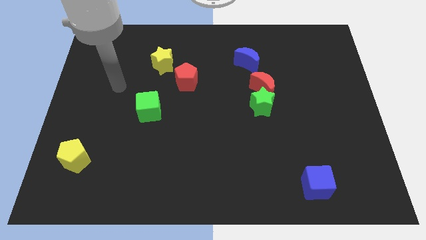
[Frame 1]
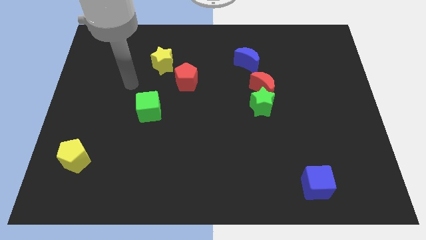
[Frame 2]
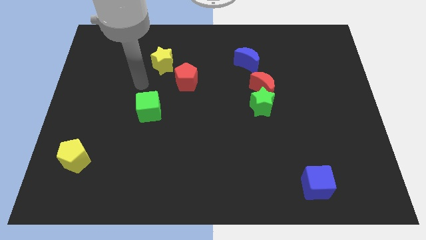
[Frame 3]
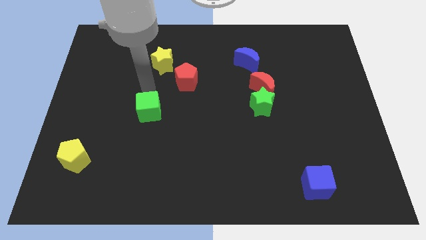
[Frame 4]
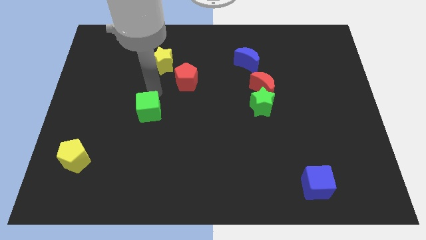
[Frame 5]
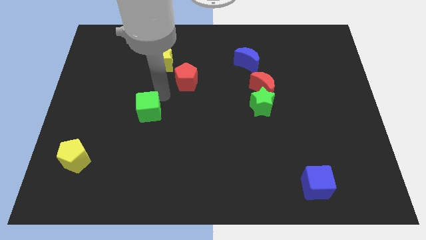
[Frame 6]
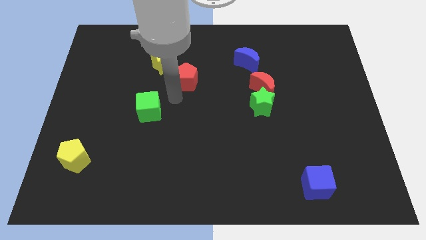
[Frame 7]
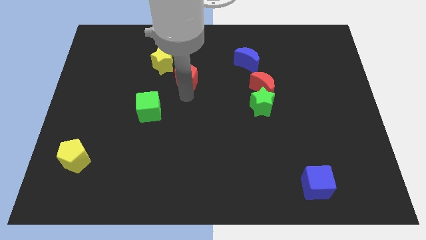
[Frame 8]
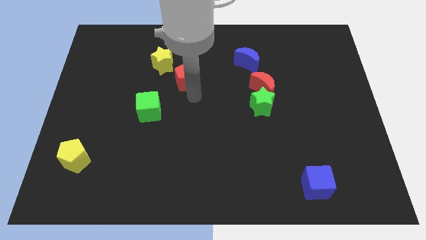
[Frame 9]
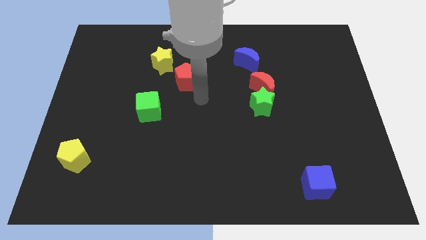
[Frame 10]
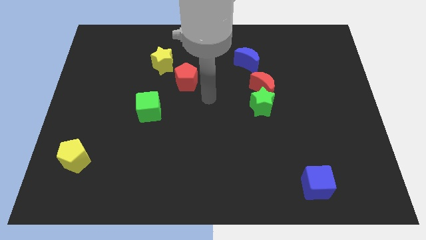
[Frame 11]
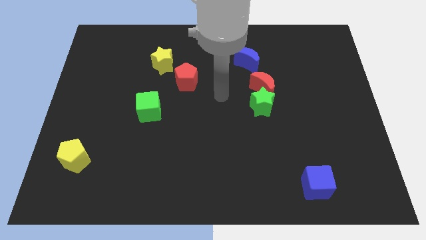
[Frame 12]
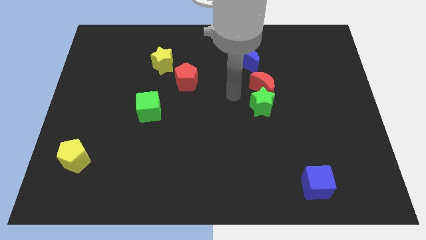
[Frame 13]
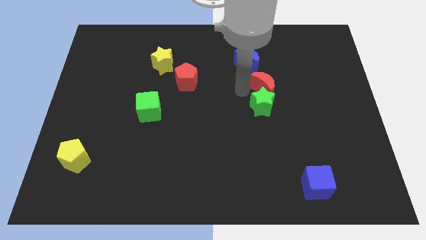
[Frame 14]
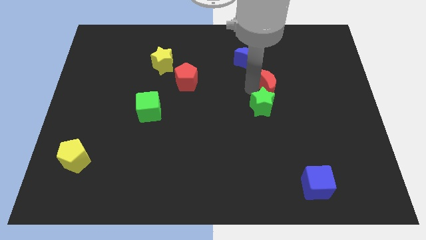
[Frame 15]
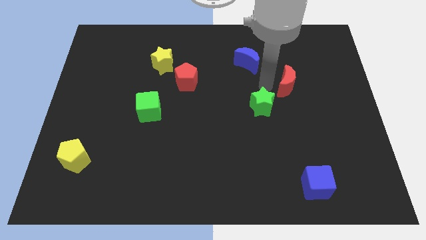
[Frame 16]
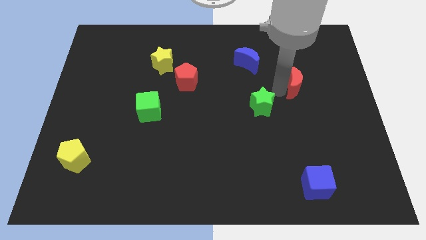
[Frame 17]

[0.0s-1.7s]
pull the green star apart from the red moon

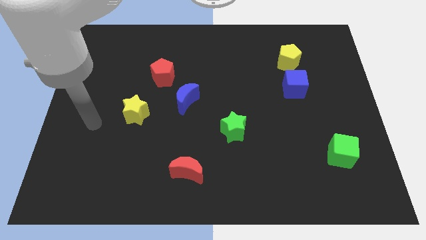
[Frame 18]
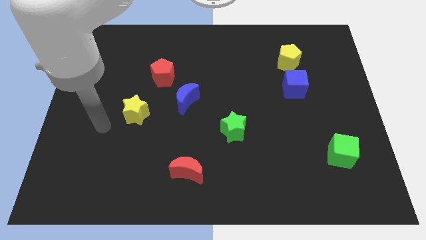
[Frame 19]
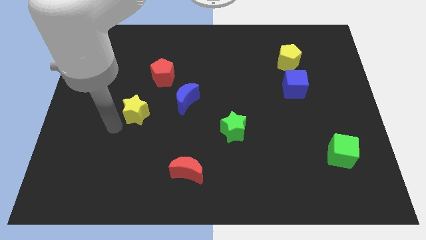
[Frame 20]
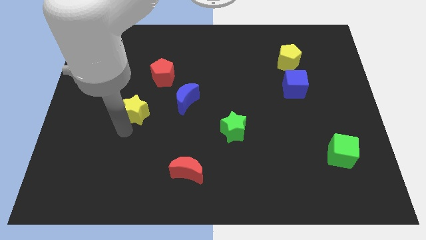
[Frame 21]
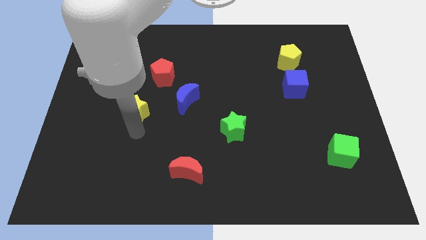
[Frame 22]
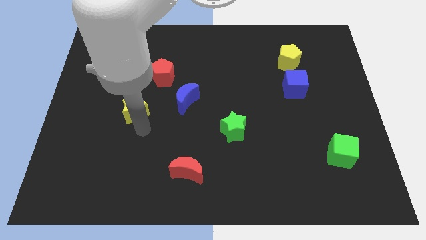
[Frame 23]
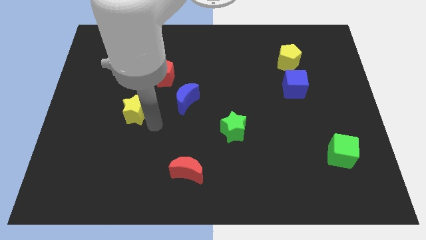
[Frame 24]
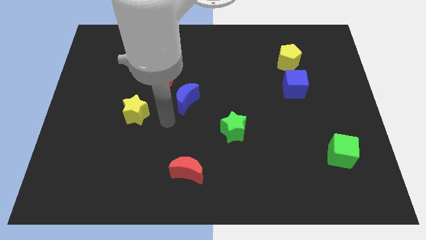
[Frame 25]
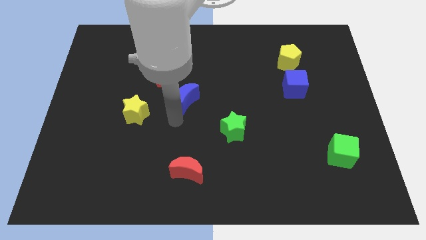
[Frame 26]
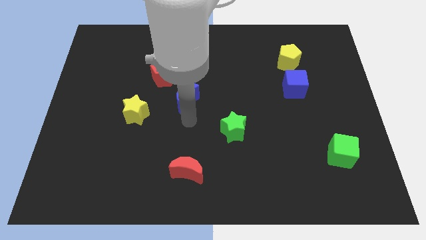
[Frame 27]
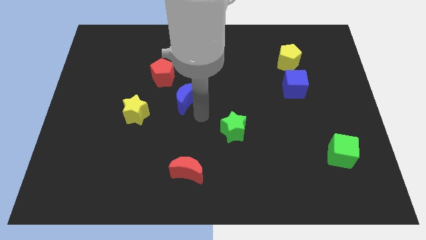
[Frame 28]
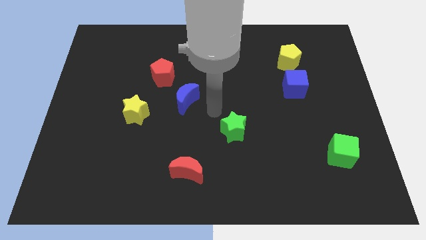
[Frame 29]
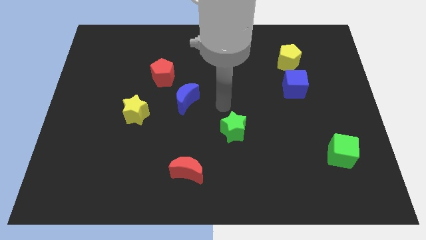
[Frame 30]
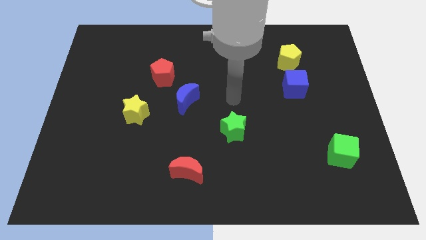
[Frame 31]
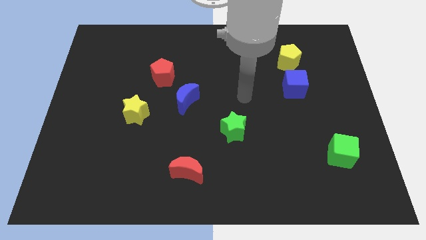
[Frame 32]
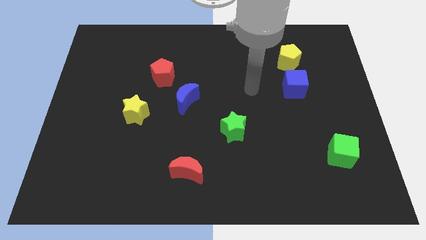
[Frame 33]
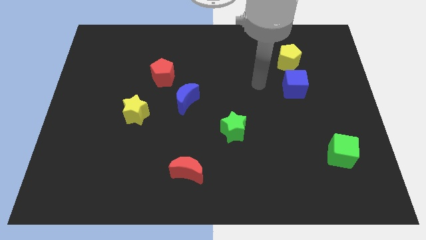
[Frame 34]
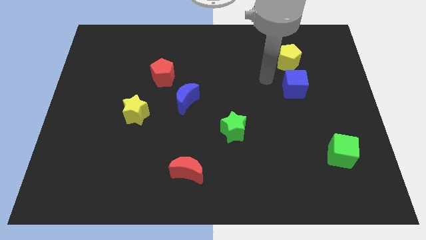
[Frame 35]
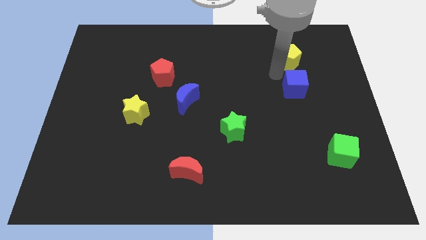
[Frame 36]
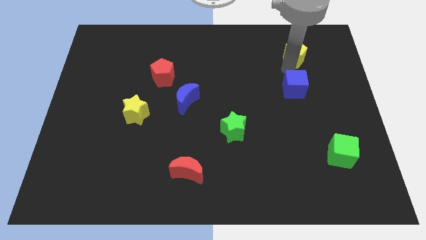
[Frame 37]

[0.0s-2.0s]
move the blue cube away from the yellow pentagon

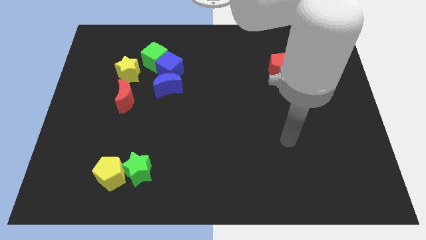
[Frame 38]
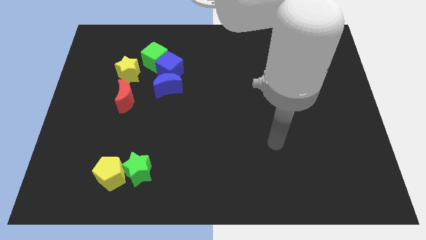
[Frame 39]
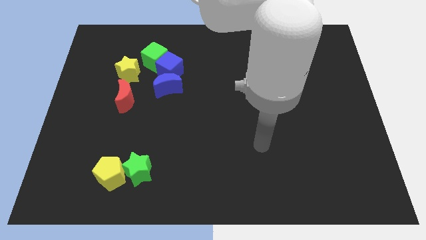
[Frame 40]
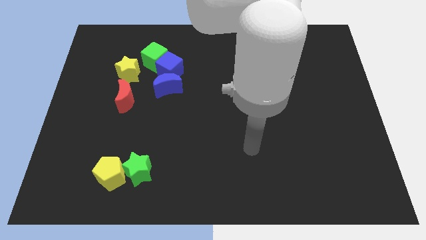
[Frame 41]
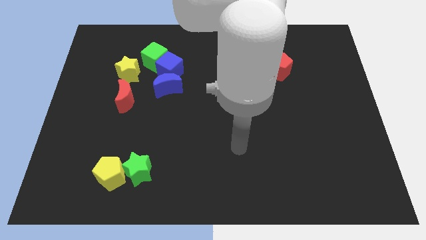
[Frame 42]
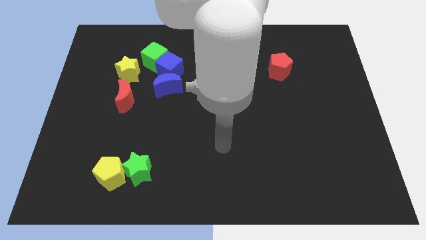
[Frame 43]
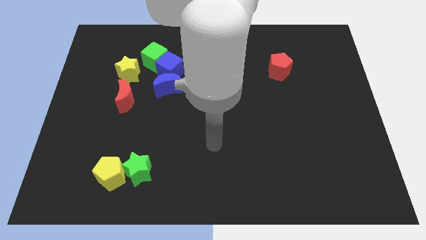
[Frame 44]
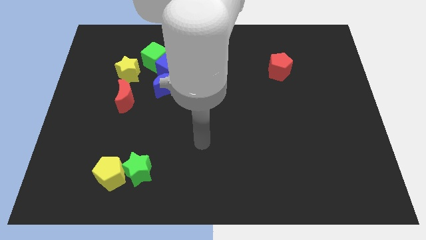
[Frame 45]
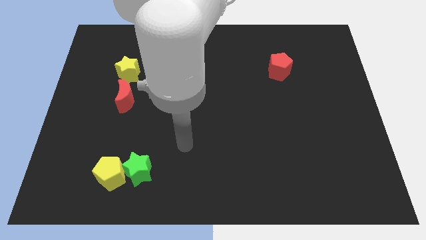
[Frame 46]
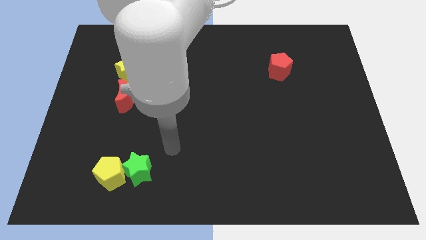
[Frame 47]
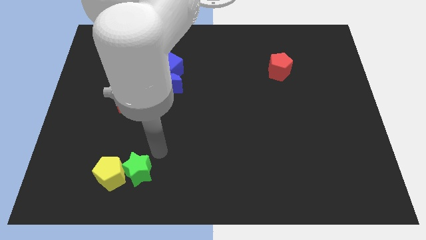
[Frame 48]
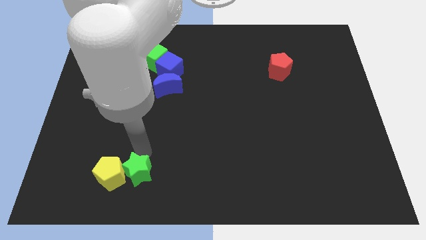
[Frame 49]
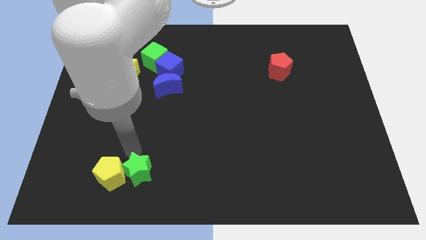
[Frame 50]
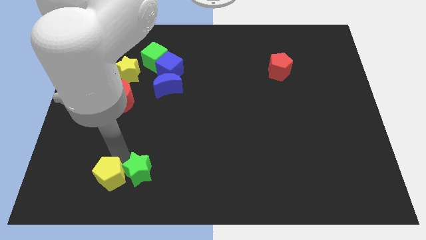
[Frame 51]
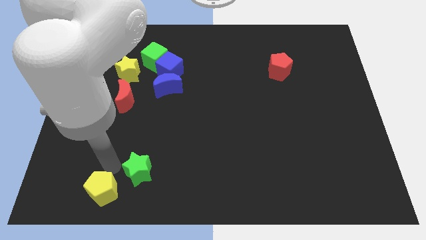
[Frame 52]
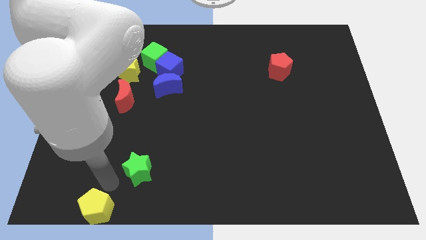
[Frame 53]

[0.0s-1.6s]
move the green star away from the yellow pentagon

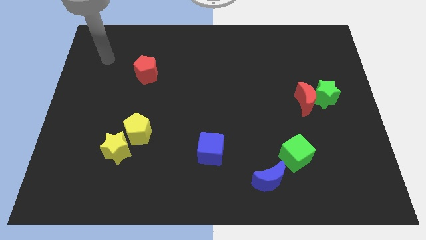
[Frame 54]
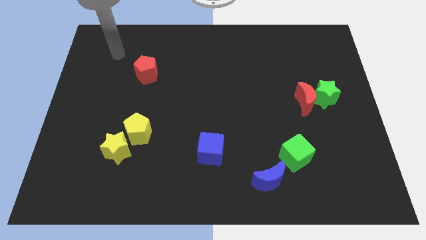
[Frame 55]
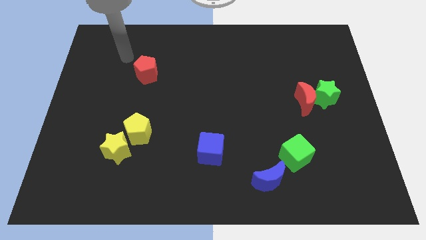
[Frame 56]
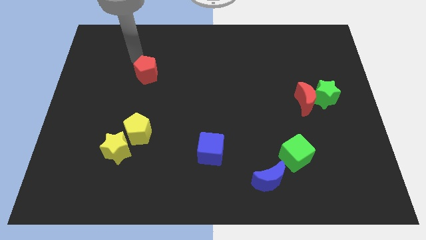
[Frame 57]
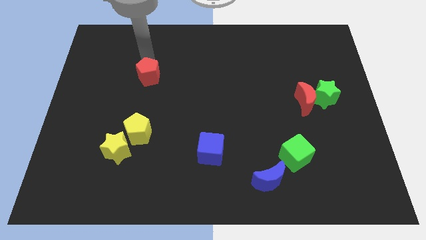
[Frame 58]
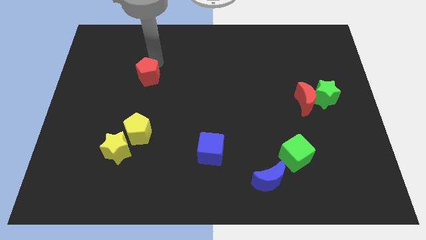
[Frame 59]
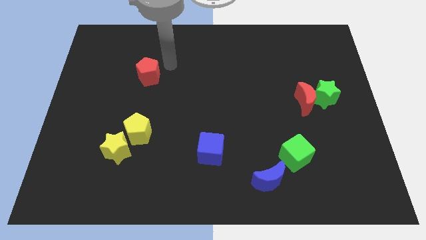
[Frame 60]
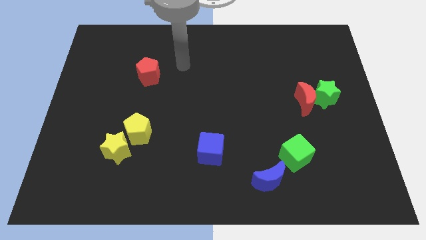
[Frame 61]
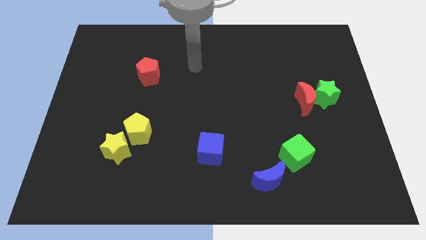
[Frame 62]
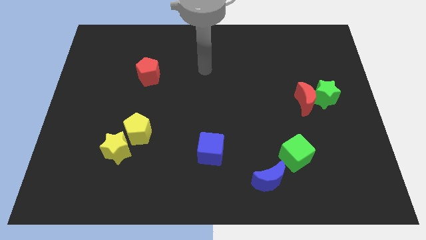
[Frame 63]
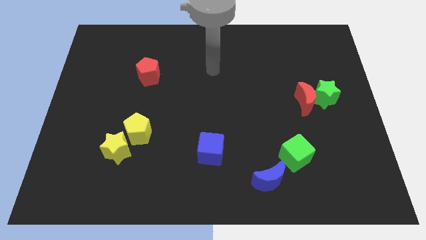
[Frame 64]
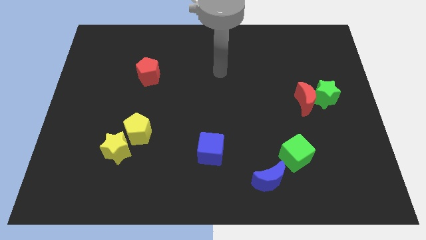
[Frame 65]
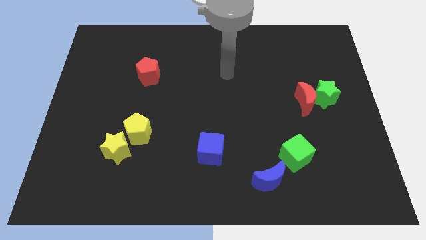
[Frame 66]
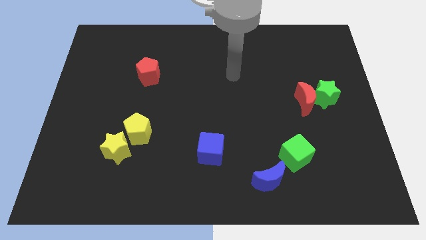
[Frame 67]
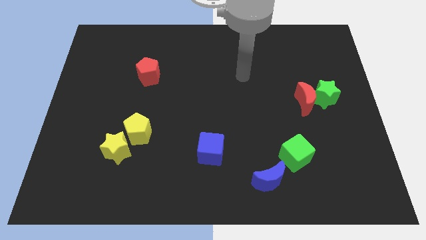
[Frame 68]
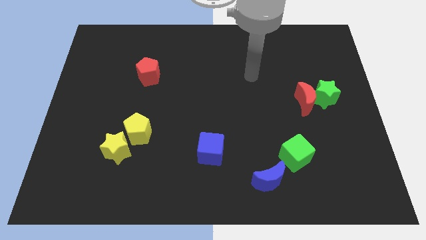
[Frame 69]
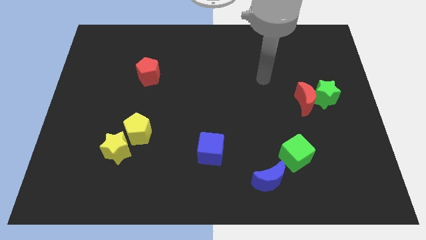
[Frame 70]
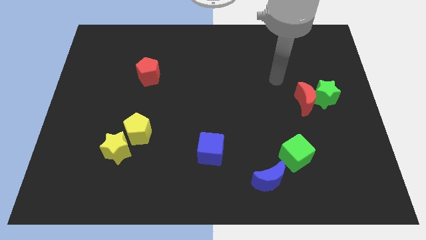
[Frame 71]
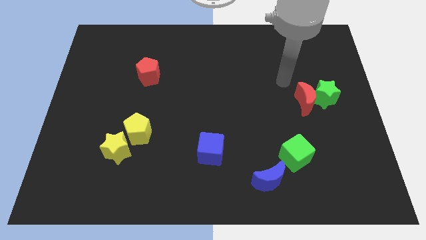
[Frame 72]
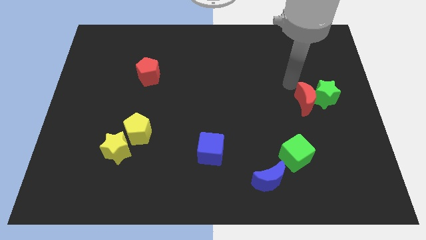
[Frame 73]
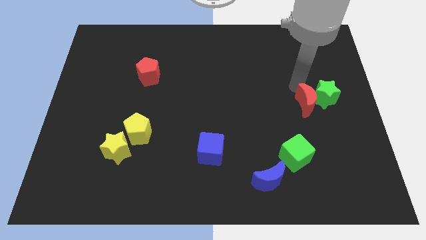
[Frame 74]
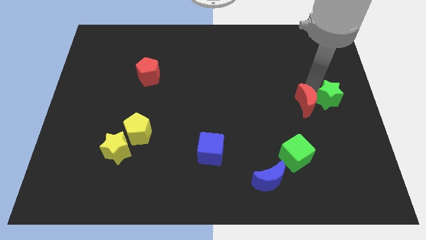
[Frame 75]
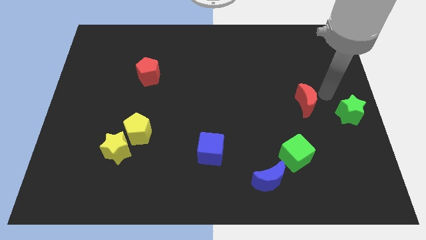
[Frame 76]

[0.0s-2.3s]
pull the red moon apart from the green star

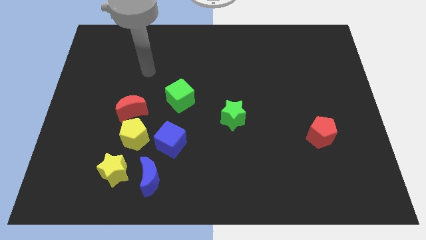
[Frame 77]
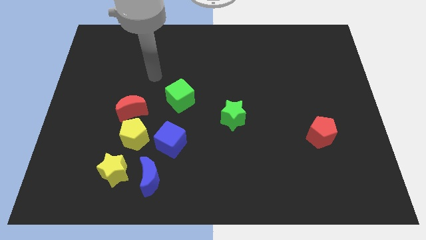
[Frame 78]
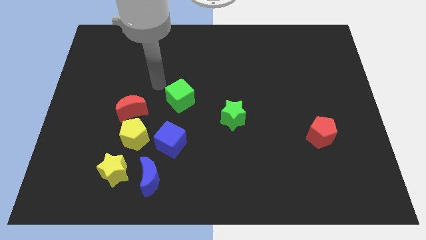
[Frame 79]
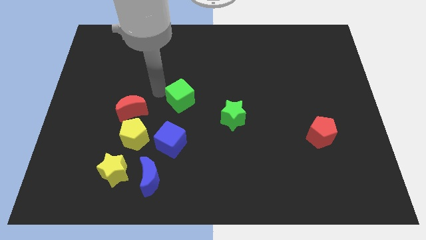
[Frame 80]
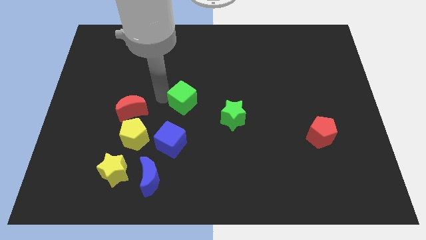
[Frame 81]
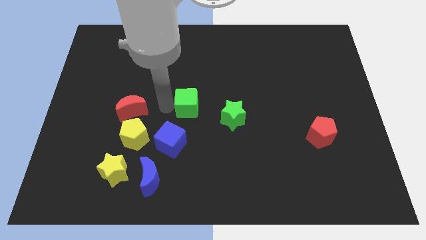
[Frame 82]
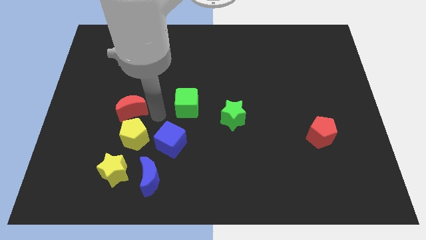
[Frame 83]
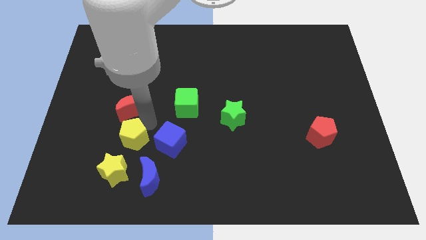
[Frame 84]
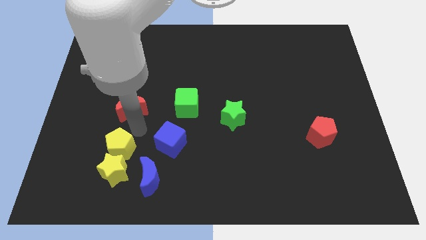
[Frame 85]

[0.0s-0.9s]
move the red moon away from the yellow pentagon

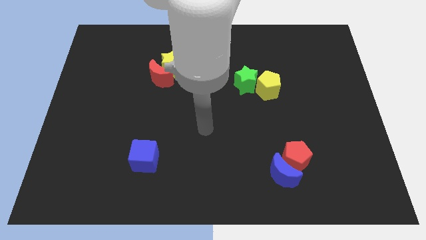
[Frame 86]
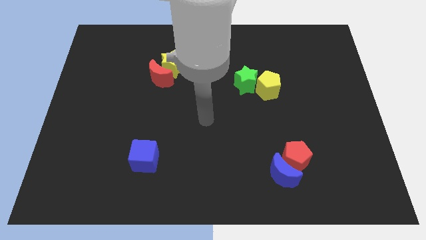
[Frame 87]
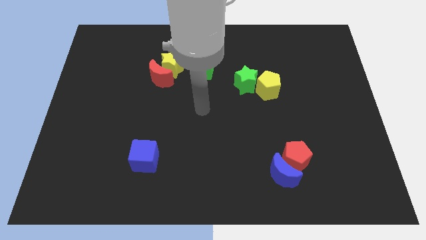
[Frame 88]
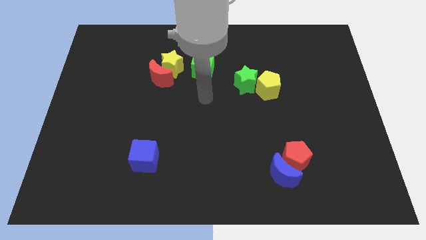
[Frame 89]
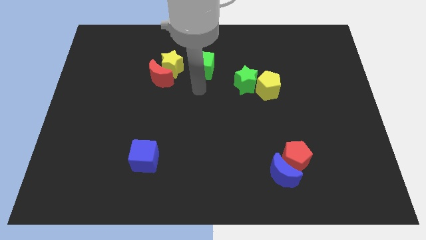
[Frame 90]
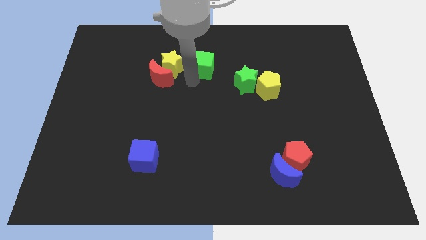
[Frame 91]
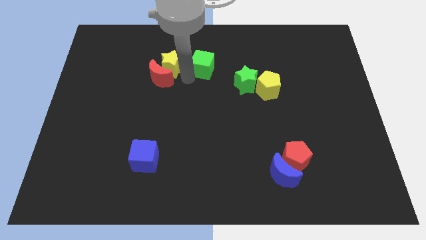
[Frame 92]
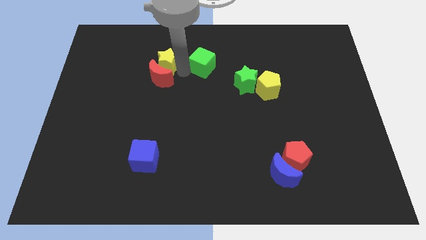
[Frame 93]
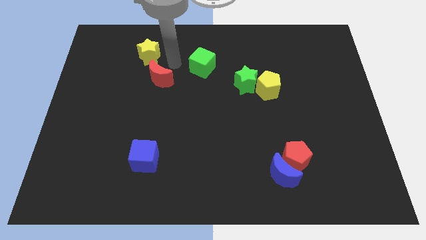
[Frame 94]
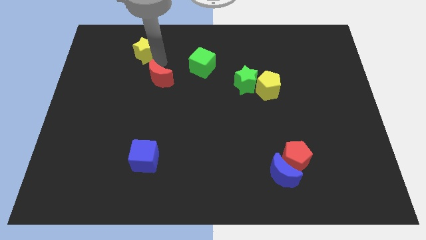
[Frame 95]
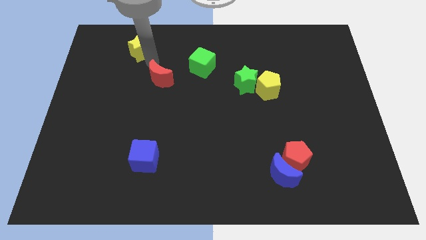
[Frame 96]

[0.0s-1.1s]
separate the red moon from the yellow star
